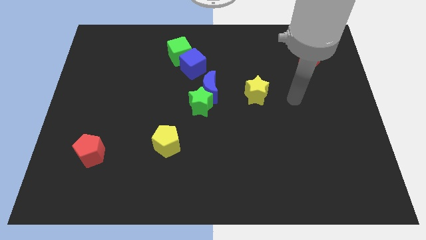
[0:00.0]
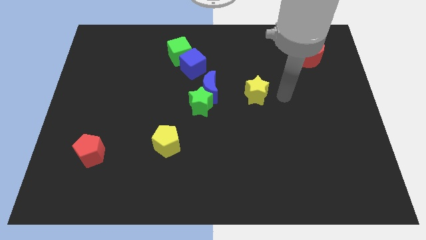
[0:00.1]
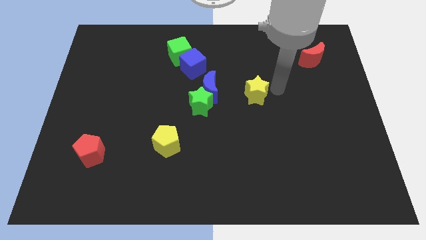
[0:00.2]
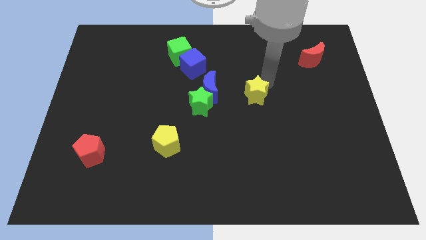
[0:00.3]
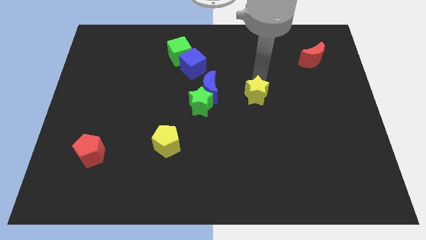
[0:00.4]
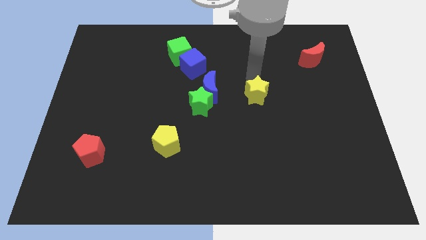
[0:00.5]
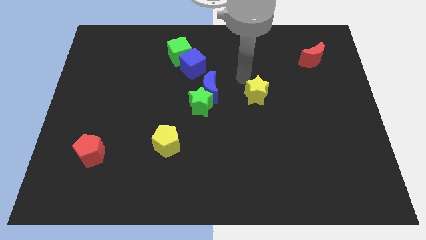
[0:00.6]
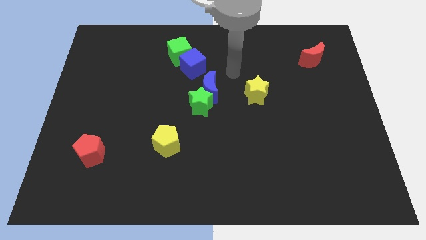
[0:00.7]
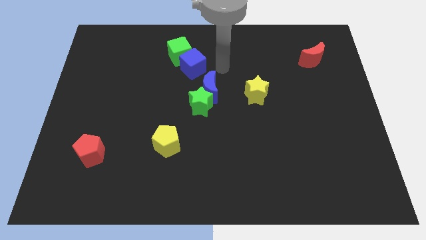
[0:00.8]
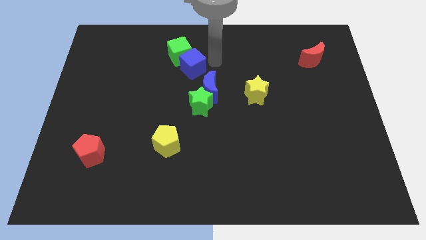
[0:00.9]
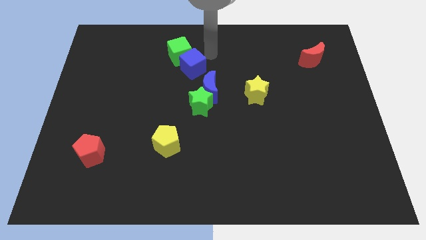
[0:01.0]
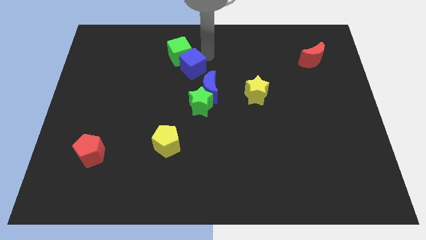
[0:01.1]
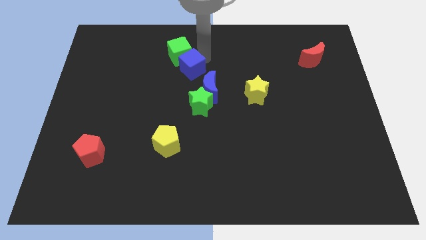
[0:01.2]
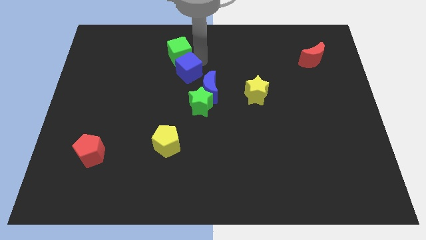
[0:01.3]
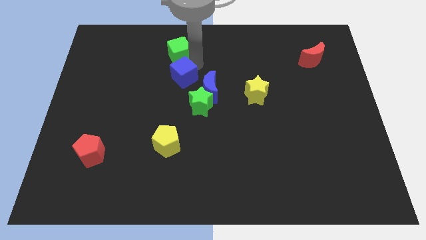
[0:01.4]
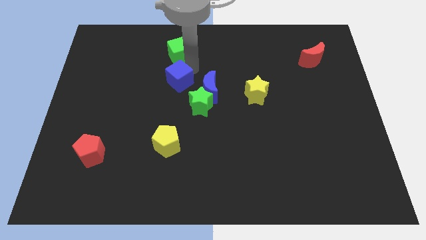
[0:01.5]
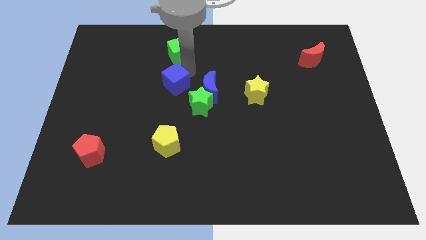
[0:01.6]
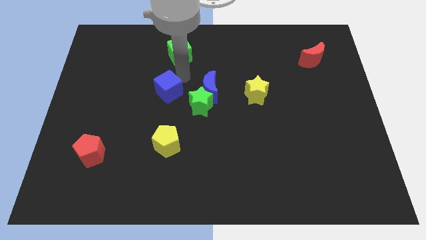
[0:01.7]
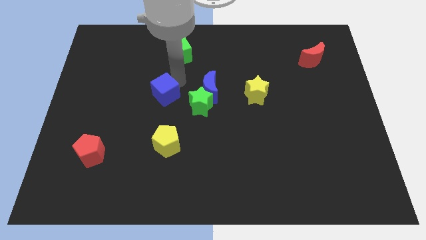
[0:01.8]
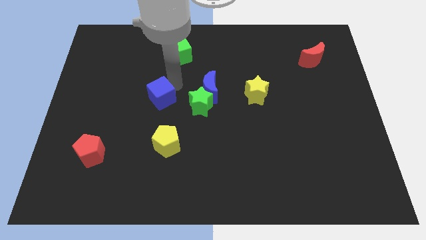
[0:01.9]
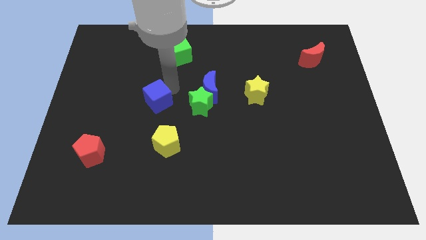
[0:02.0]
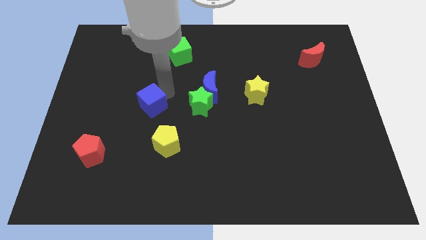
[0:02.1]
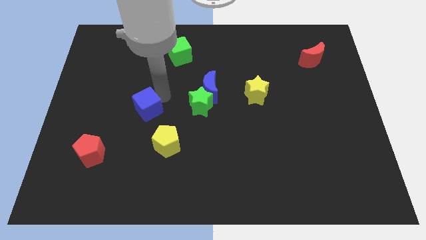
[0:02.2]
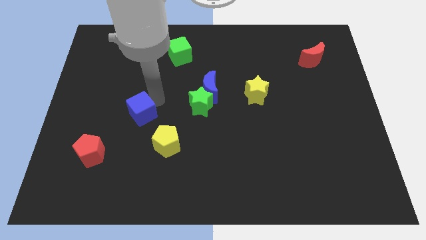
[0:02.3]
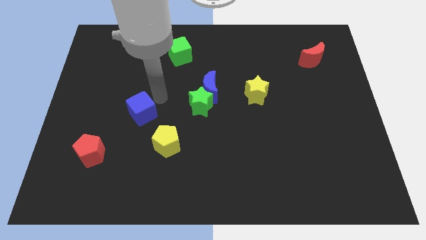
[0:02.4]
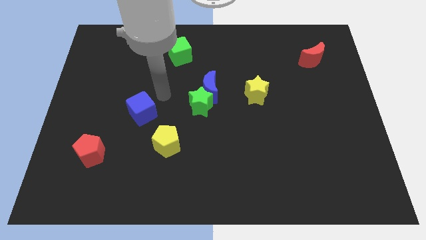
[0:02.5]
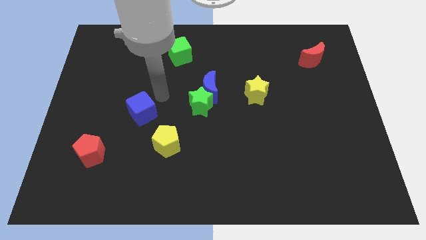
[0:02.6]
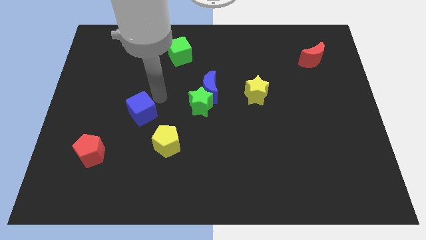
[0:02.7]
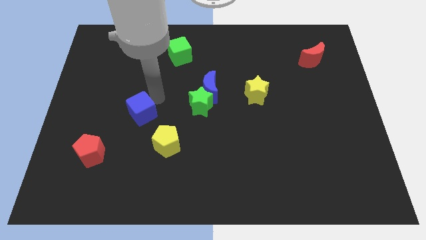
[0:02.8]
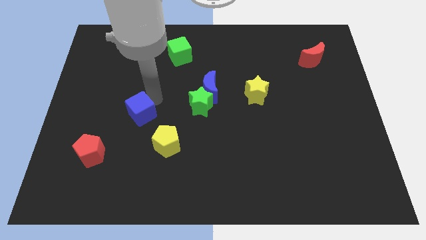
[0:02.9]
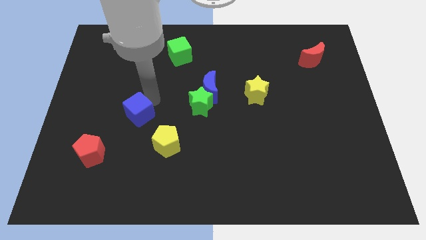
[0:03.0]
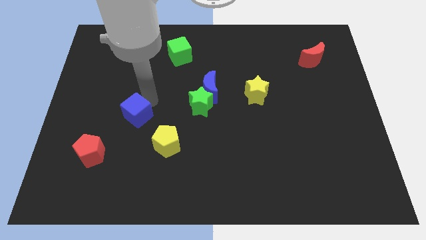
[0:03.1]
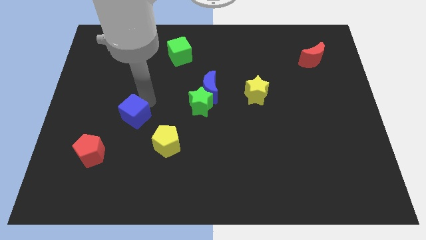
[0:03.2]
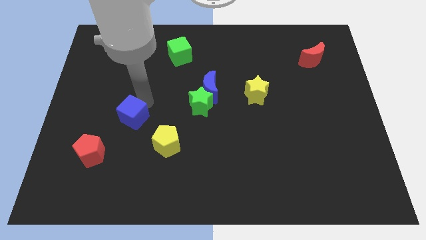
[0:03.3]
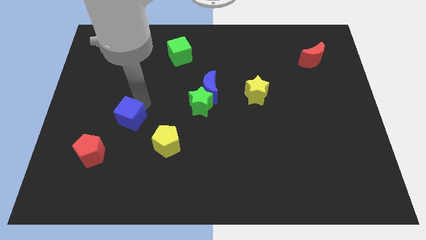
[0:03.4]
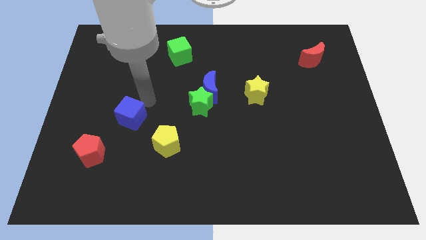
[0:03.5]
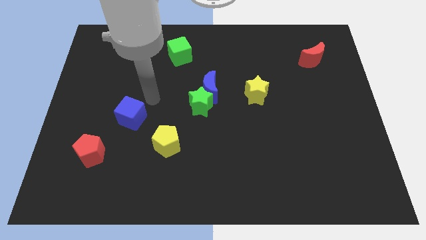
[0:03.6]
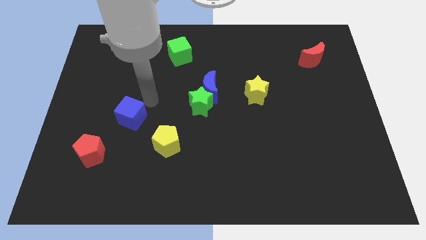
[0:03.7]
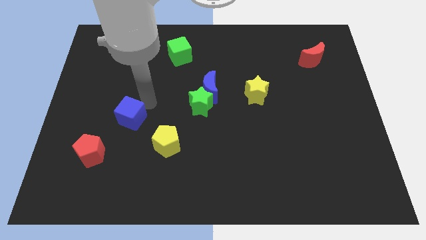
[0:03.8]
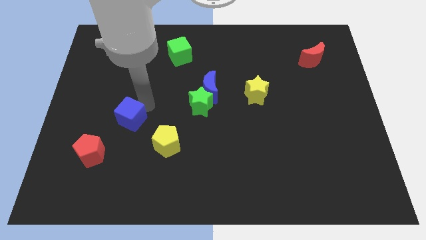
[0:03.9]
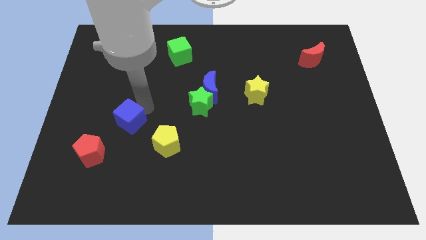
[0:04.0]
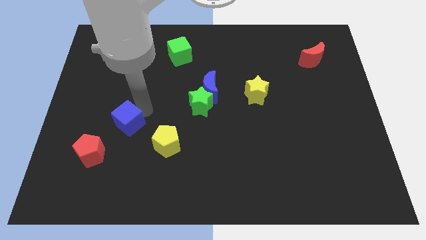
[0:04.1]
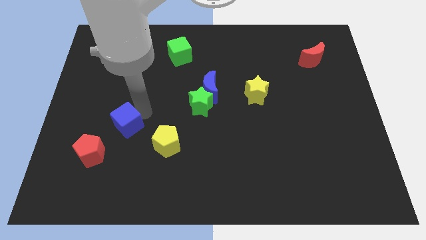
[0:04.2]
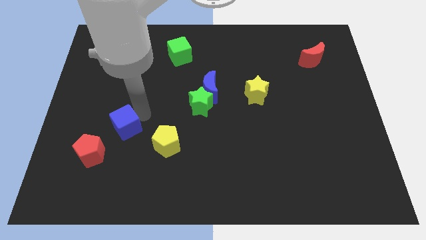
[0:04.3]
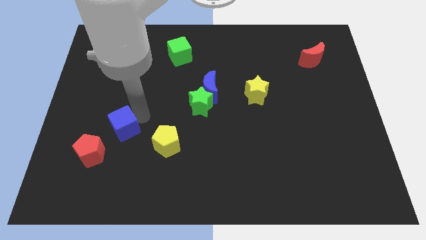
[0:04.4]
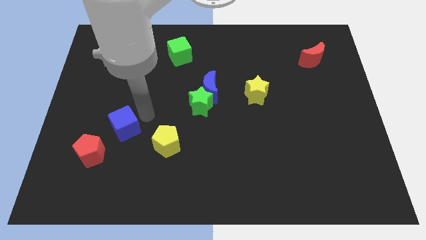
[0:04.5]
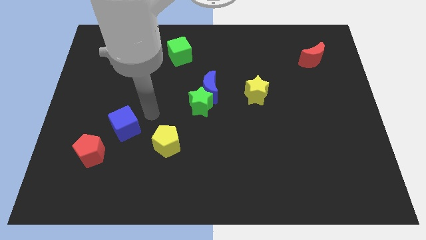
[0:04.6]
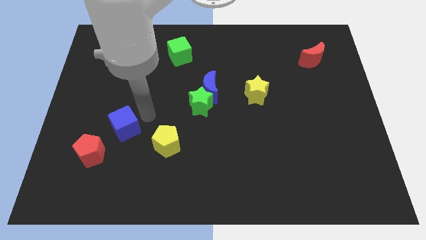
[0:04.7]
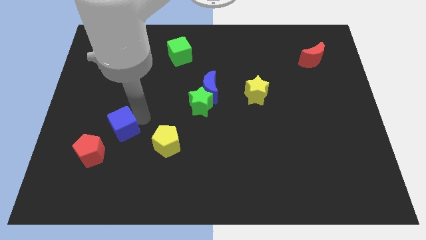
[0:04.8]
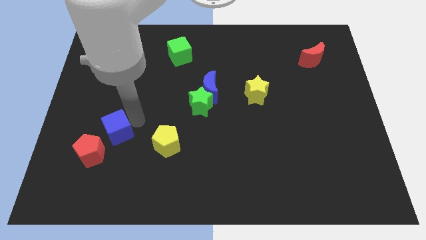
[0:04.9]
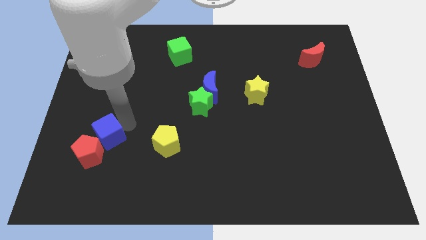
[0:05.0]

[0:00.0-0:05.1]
slide the blue cube towards the red pentagon

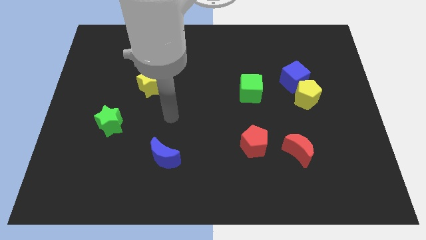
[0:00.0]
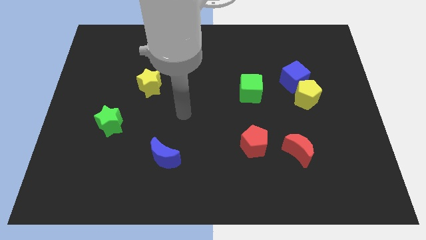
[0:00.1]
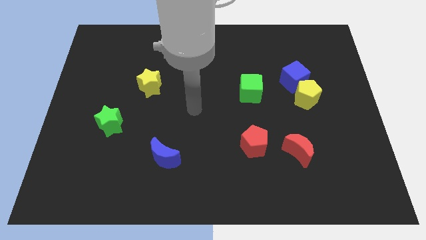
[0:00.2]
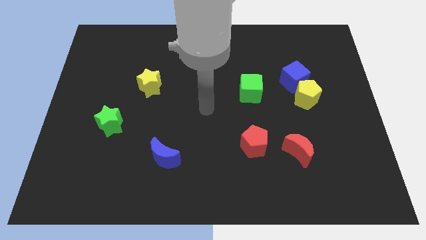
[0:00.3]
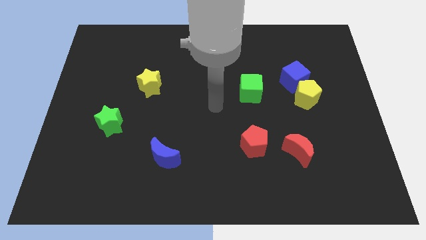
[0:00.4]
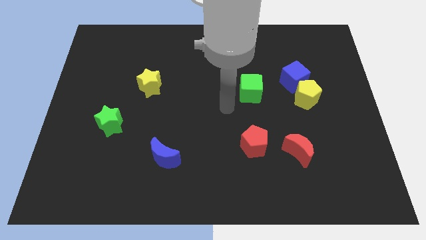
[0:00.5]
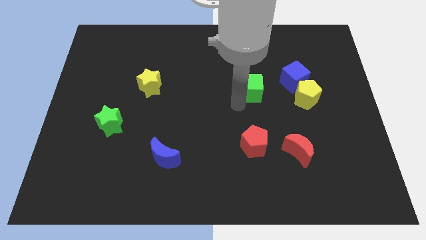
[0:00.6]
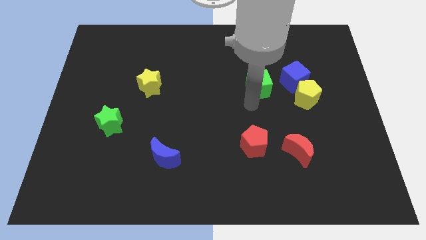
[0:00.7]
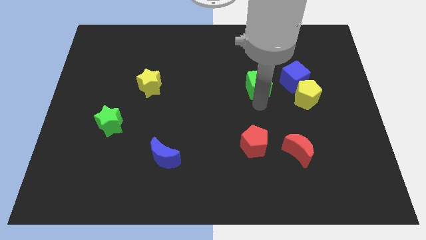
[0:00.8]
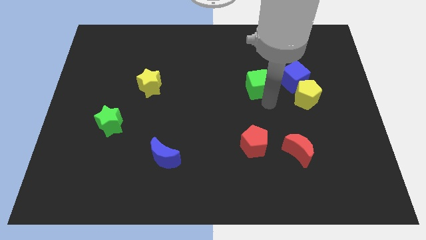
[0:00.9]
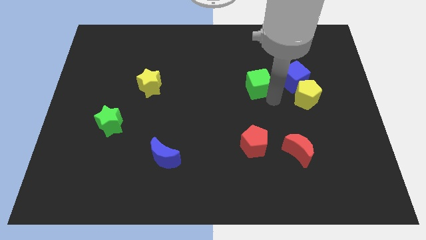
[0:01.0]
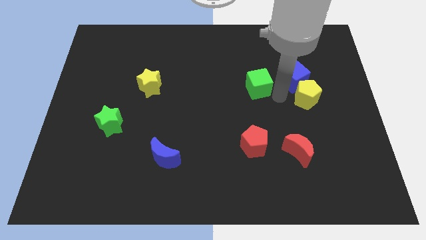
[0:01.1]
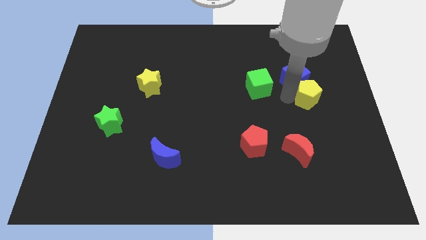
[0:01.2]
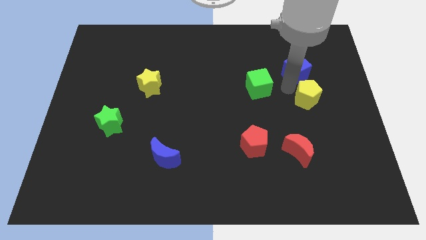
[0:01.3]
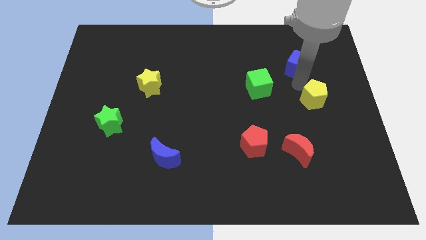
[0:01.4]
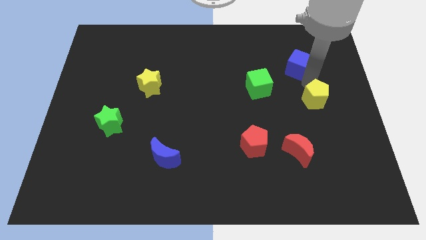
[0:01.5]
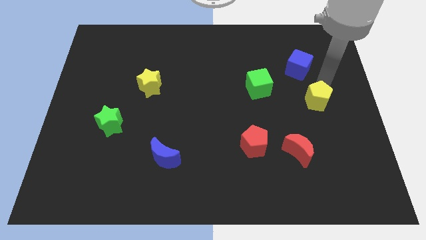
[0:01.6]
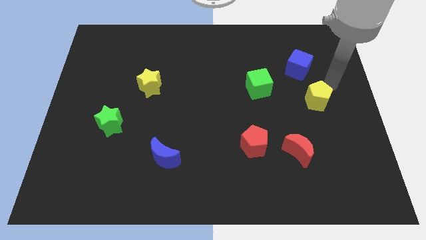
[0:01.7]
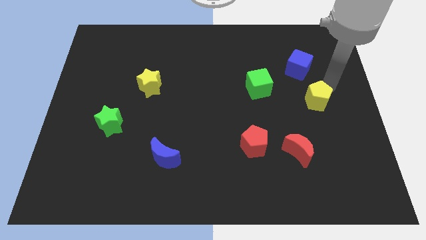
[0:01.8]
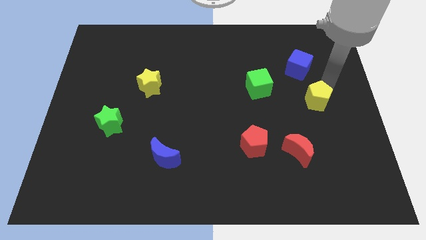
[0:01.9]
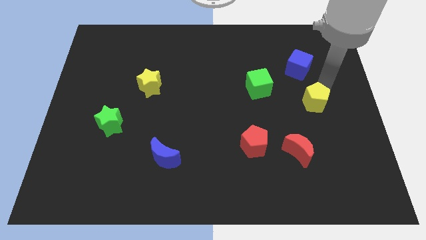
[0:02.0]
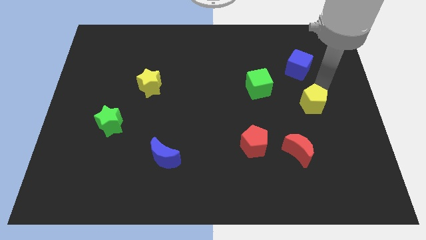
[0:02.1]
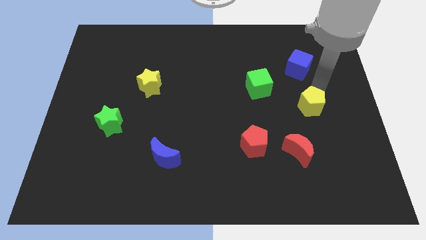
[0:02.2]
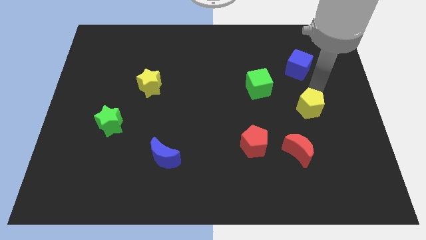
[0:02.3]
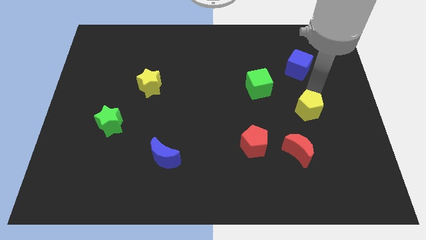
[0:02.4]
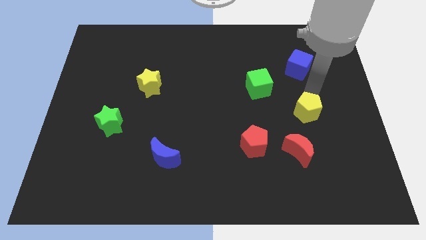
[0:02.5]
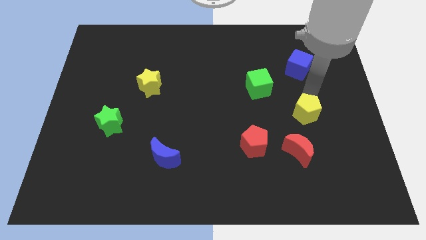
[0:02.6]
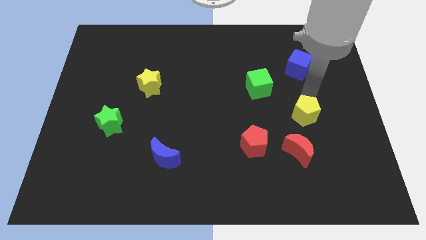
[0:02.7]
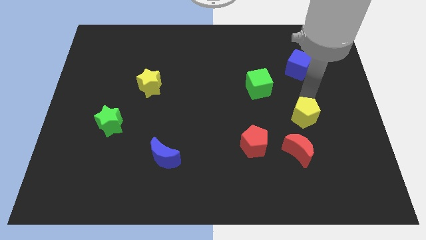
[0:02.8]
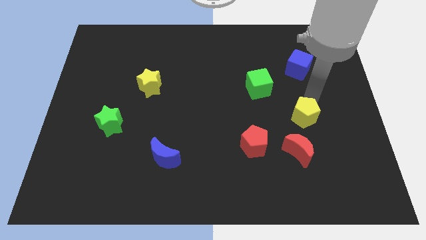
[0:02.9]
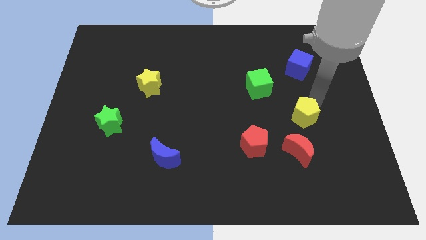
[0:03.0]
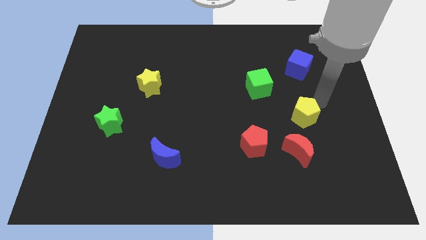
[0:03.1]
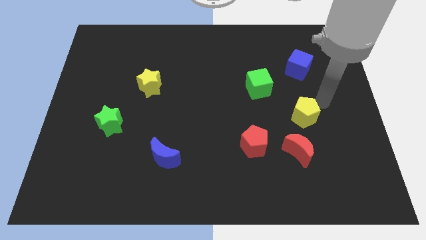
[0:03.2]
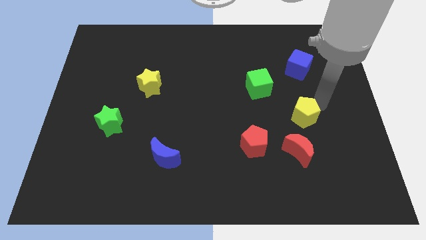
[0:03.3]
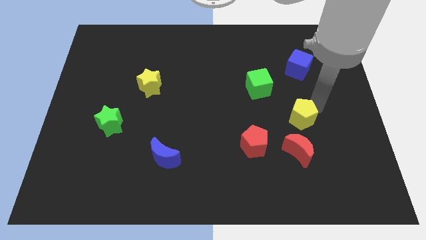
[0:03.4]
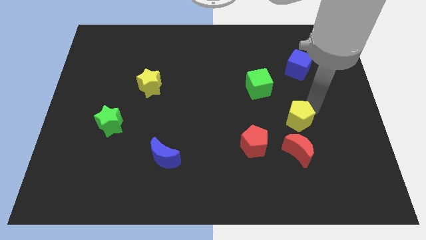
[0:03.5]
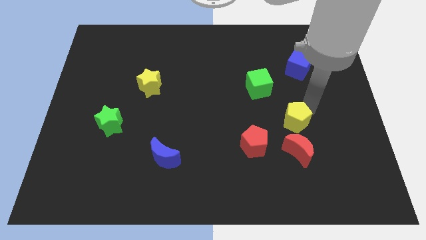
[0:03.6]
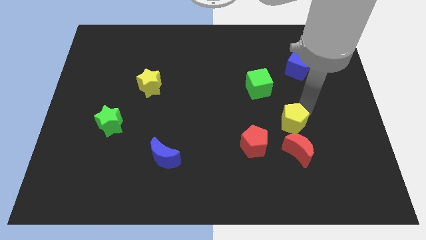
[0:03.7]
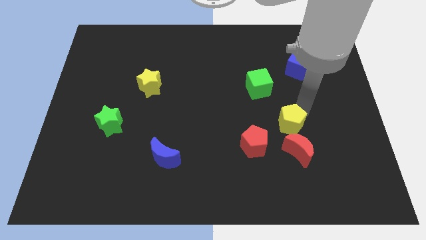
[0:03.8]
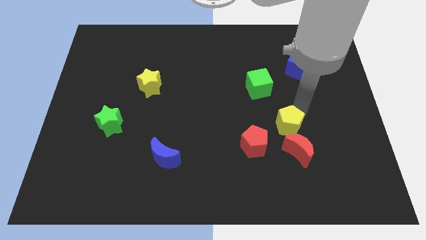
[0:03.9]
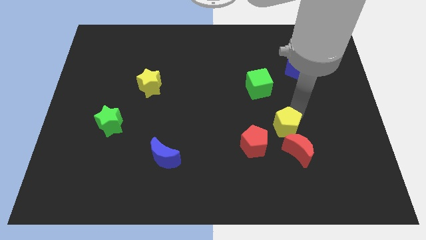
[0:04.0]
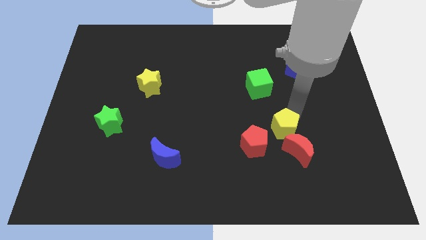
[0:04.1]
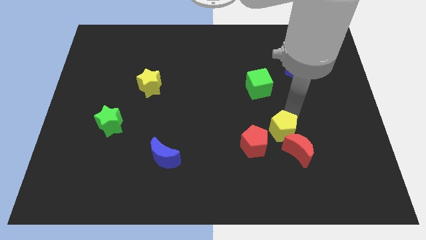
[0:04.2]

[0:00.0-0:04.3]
push the yellow pentagon to the red moon
